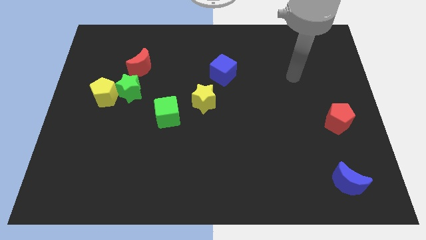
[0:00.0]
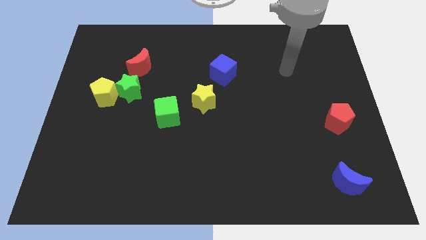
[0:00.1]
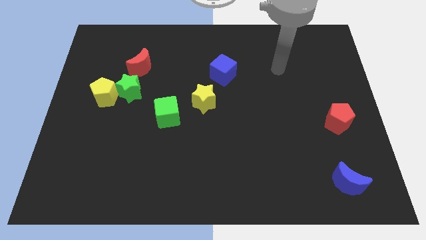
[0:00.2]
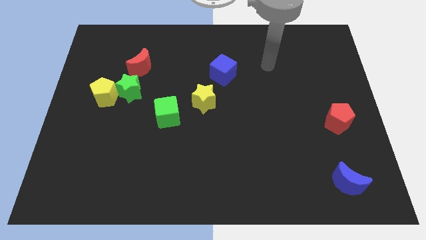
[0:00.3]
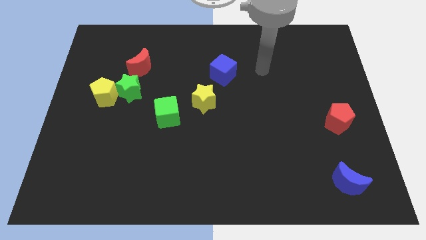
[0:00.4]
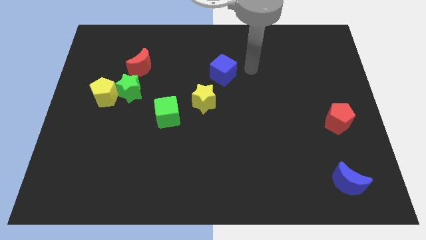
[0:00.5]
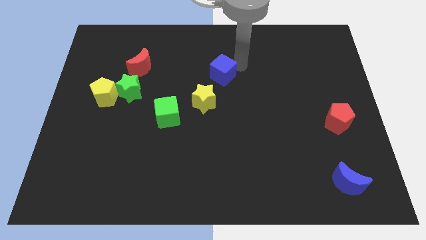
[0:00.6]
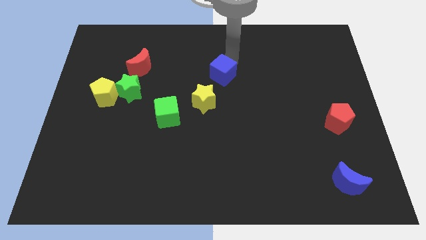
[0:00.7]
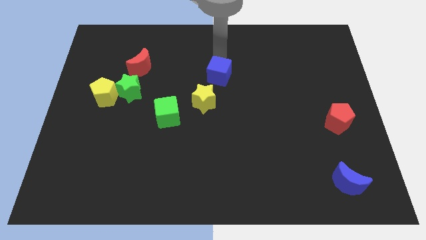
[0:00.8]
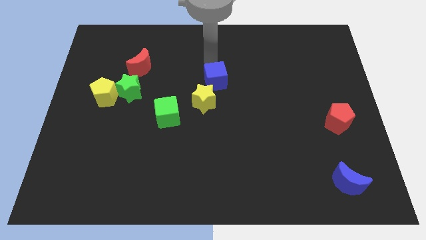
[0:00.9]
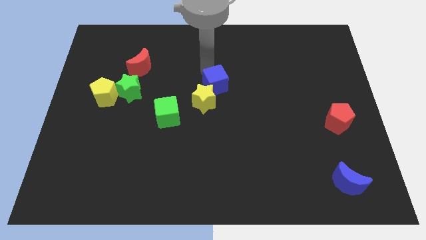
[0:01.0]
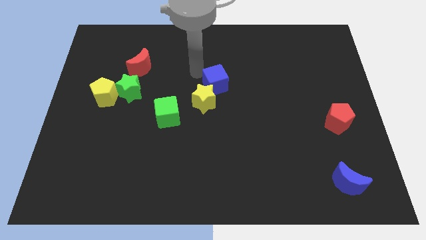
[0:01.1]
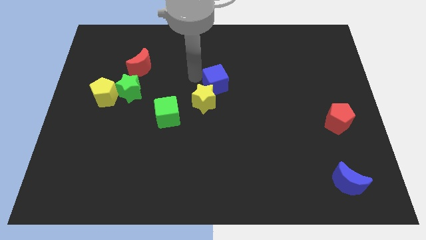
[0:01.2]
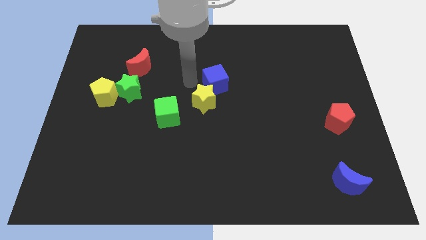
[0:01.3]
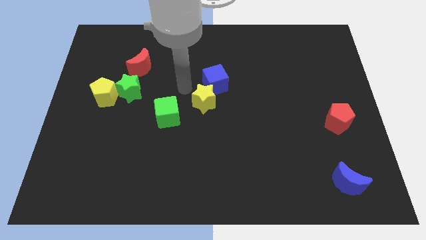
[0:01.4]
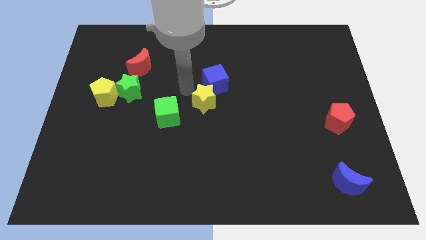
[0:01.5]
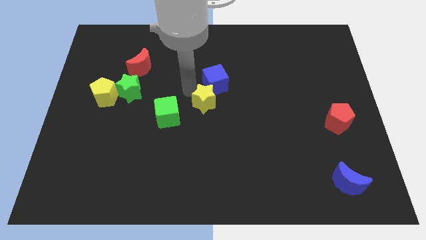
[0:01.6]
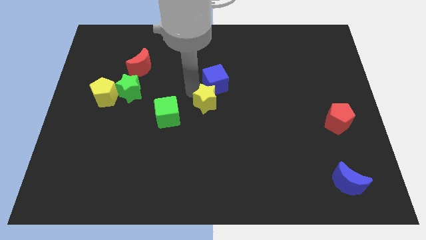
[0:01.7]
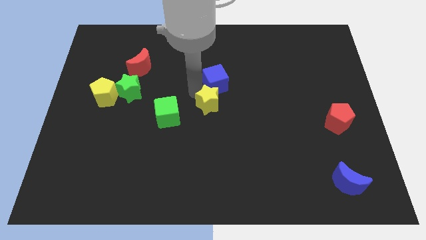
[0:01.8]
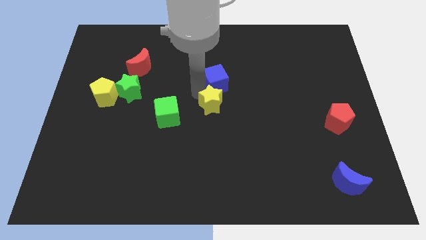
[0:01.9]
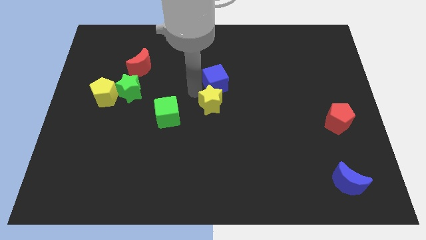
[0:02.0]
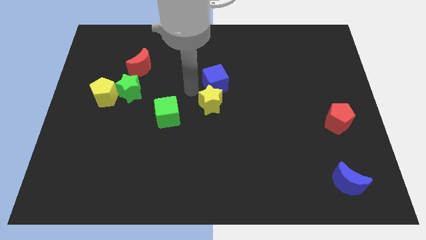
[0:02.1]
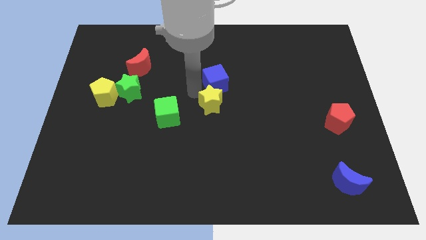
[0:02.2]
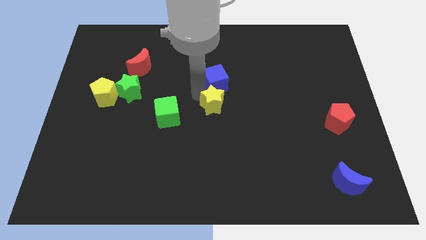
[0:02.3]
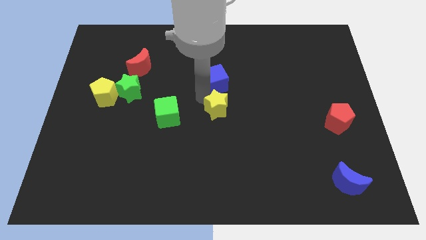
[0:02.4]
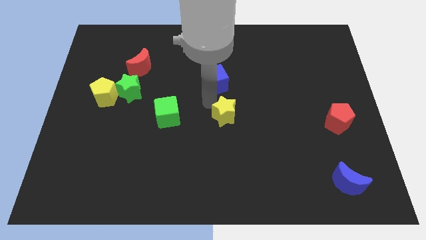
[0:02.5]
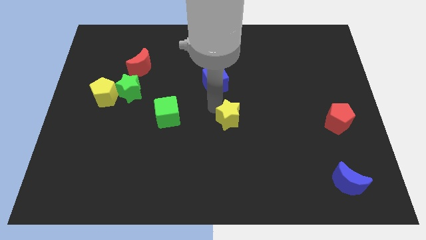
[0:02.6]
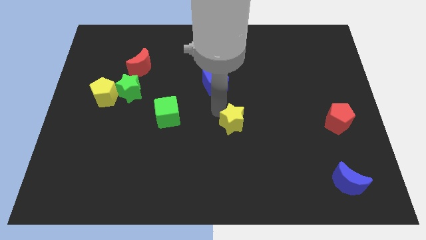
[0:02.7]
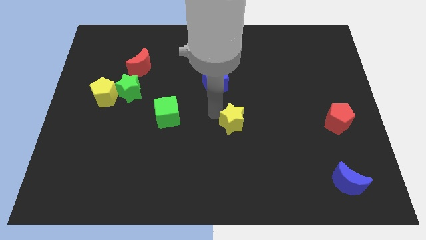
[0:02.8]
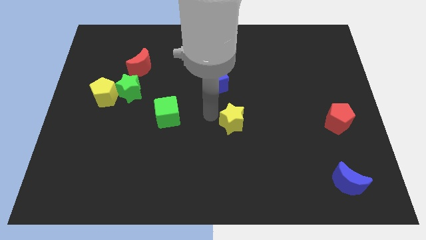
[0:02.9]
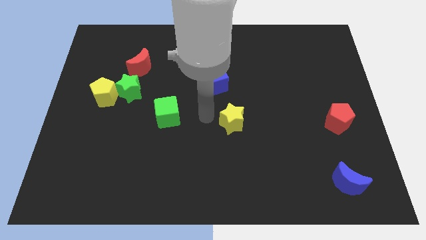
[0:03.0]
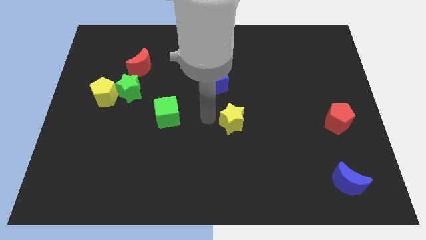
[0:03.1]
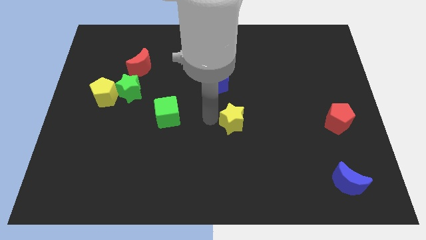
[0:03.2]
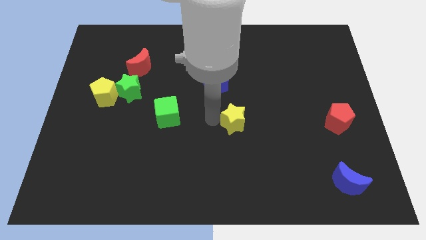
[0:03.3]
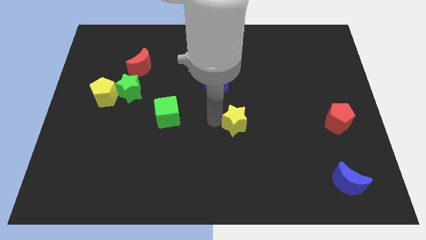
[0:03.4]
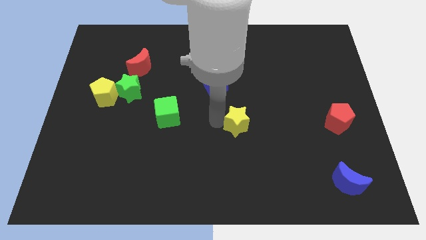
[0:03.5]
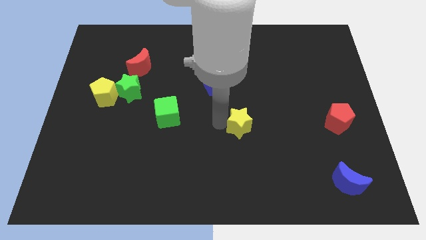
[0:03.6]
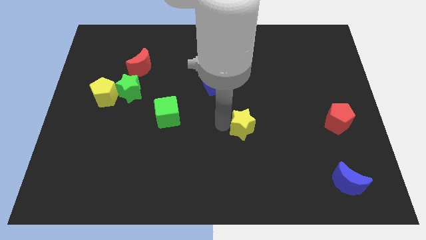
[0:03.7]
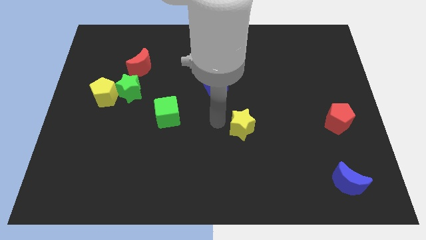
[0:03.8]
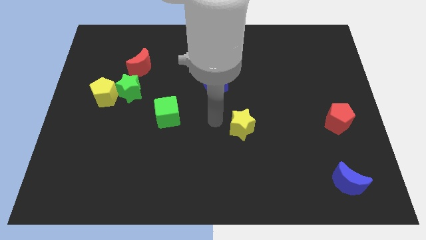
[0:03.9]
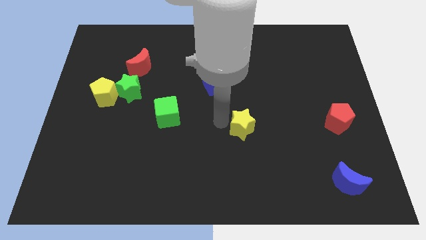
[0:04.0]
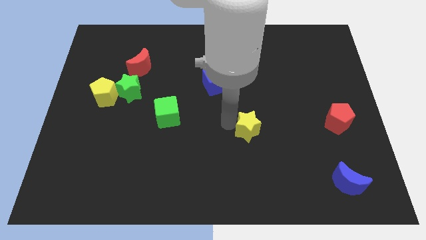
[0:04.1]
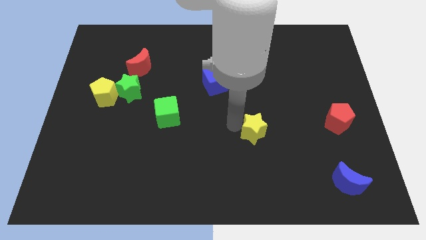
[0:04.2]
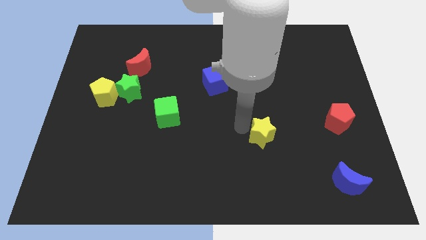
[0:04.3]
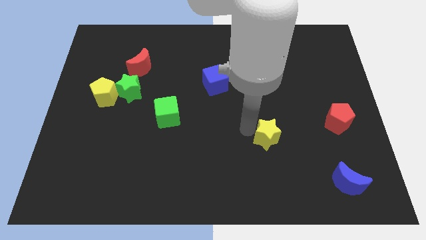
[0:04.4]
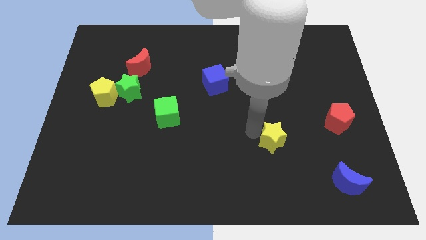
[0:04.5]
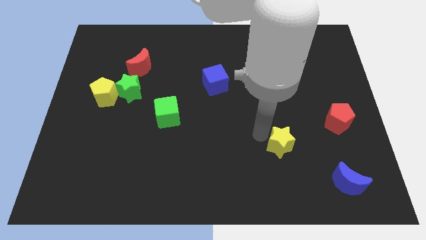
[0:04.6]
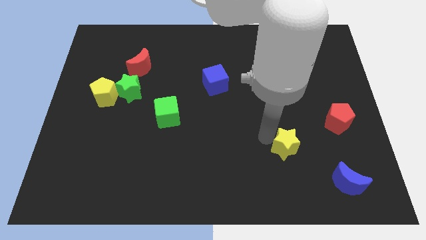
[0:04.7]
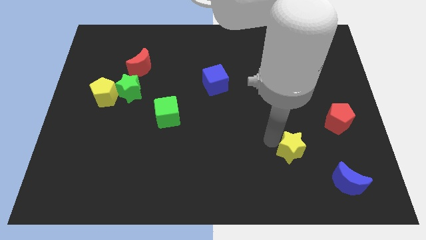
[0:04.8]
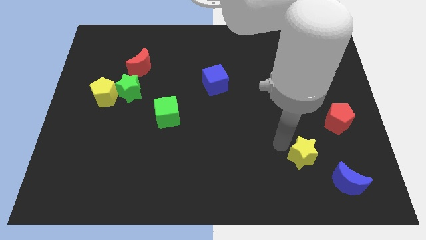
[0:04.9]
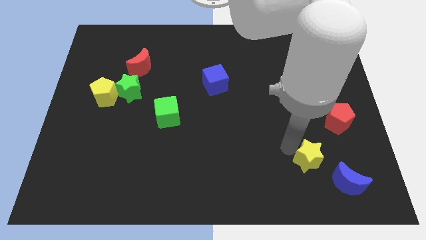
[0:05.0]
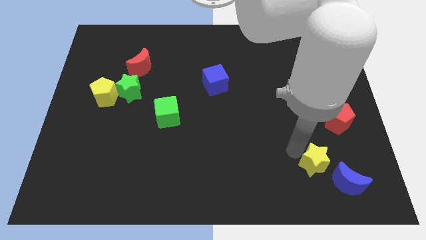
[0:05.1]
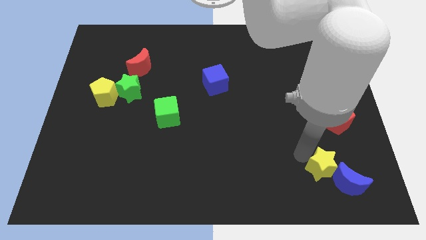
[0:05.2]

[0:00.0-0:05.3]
put the yellow star close to the blue moon

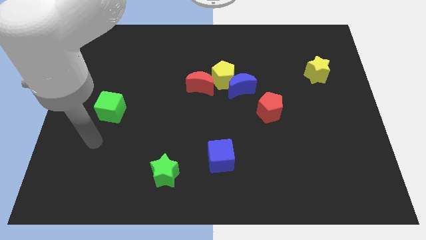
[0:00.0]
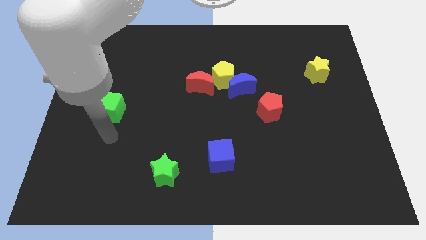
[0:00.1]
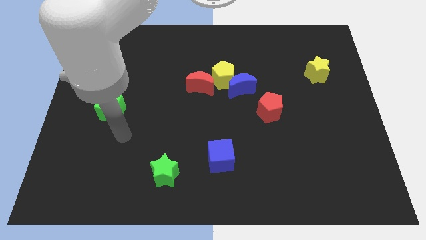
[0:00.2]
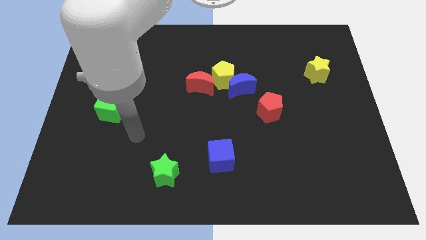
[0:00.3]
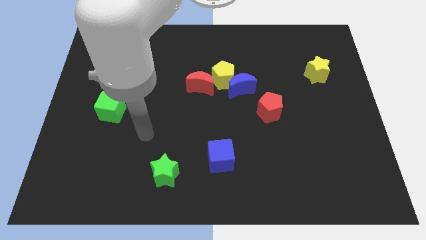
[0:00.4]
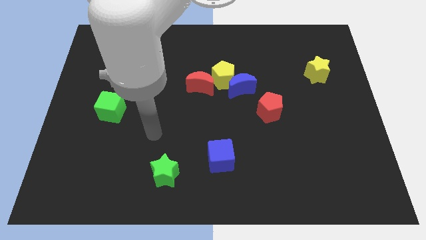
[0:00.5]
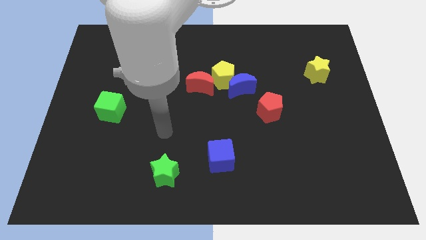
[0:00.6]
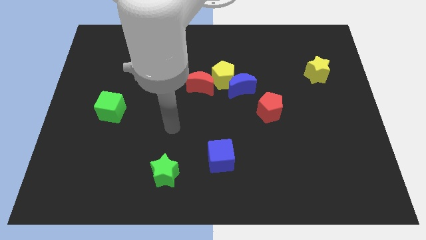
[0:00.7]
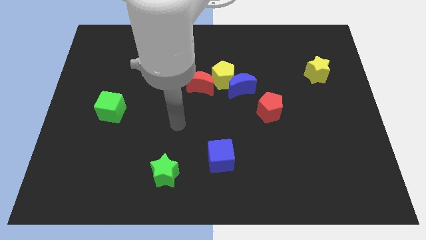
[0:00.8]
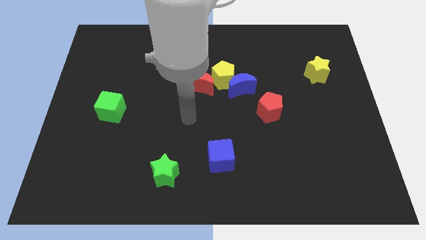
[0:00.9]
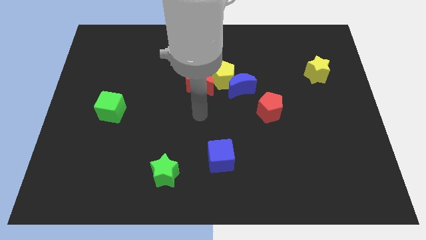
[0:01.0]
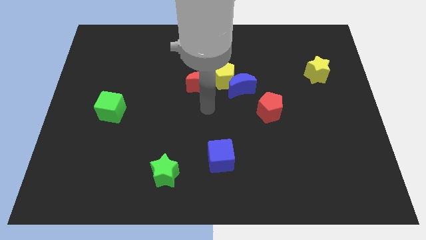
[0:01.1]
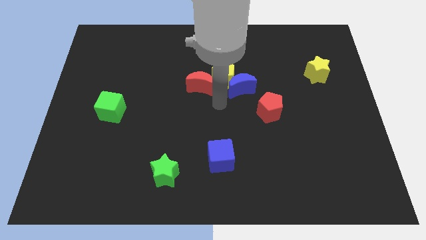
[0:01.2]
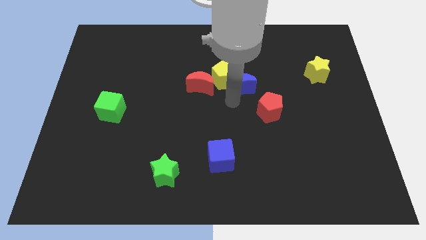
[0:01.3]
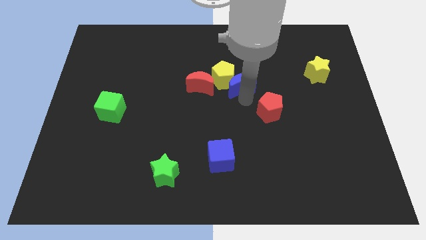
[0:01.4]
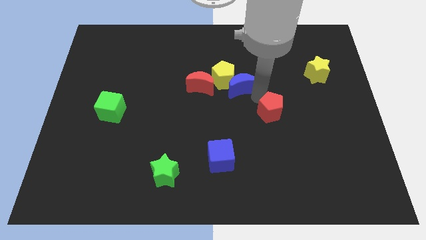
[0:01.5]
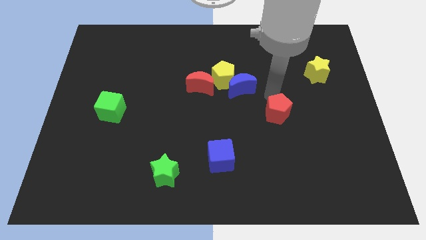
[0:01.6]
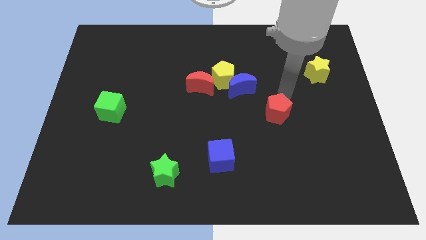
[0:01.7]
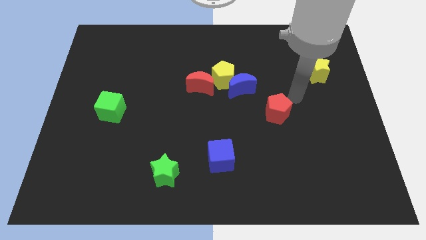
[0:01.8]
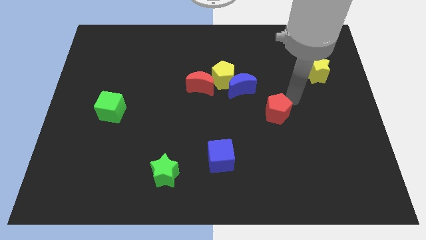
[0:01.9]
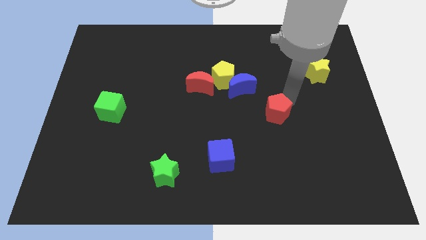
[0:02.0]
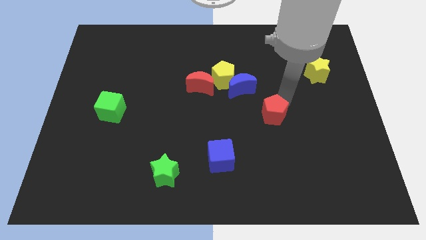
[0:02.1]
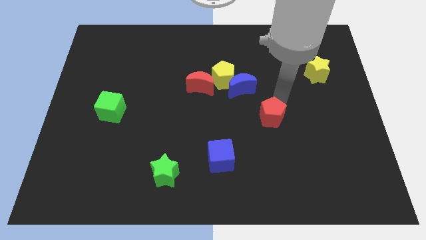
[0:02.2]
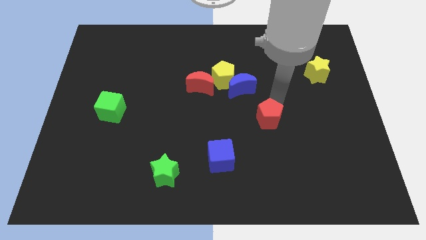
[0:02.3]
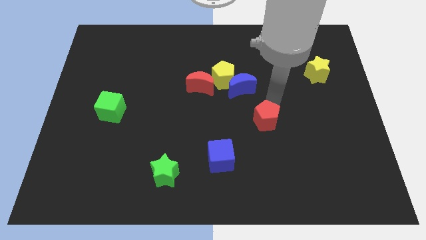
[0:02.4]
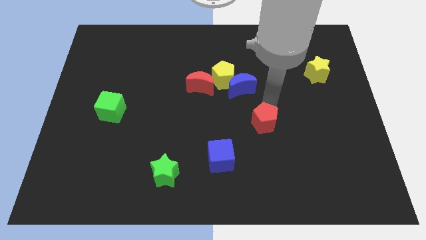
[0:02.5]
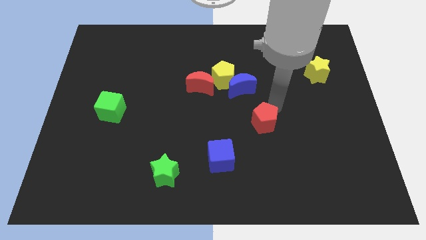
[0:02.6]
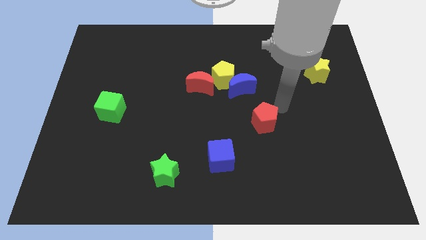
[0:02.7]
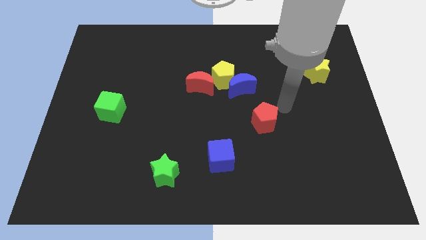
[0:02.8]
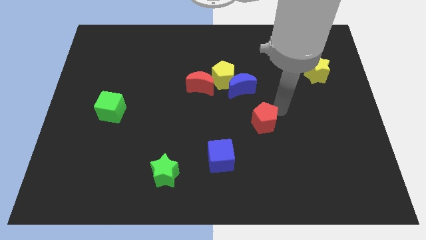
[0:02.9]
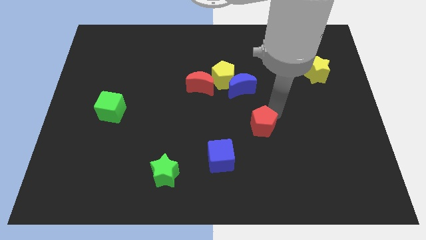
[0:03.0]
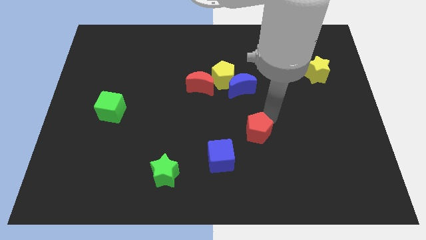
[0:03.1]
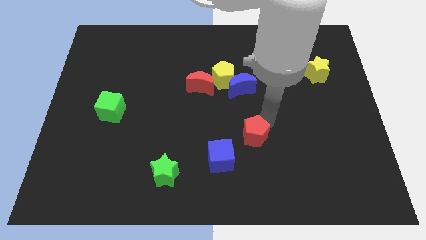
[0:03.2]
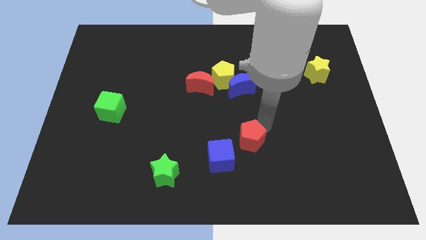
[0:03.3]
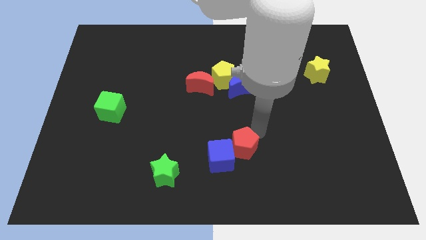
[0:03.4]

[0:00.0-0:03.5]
push the red pentagon towards the blue cube
